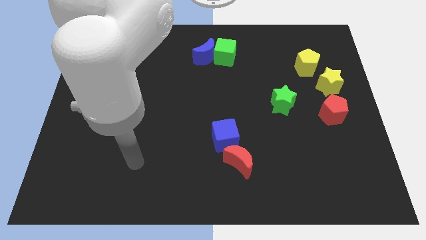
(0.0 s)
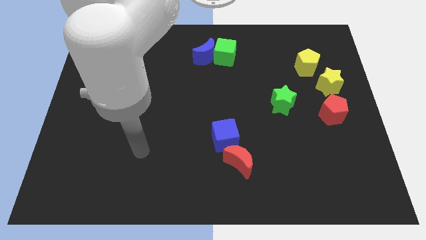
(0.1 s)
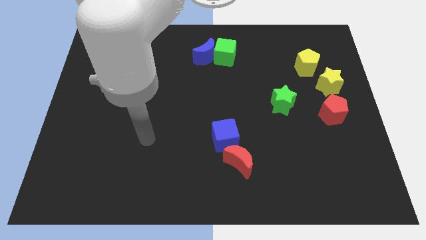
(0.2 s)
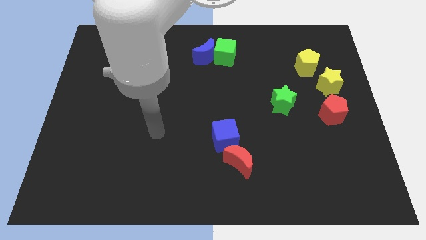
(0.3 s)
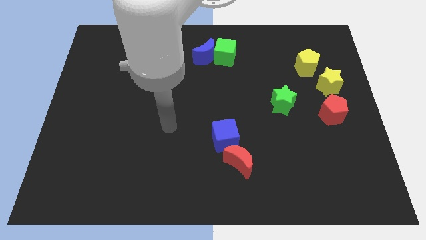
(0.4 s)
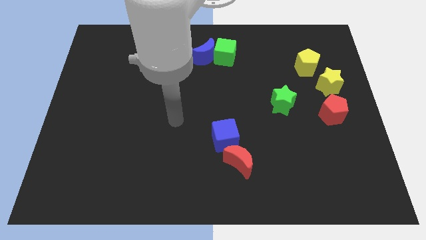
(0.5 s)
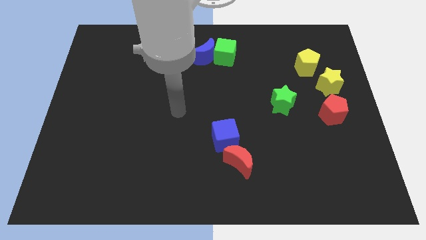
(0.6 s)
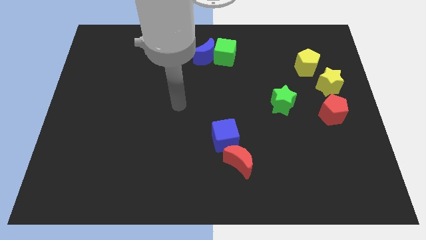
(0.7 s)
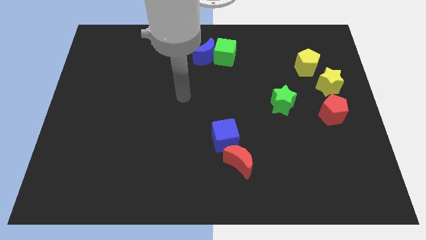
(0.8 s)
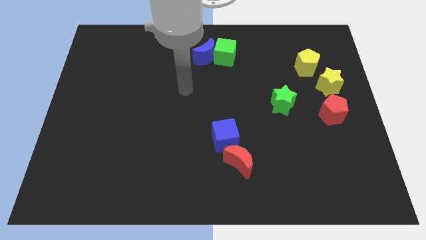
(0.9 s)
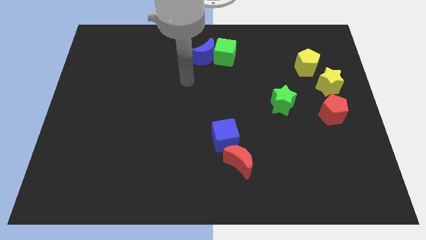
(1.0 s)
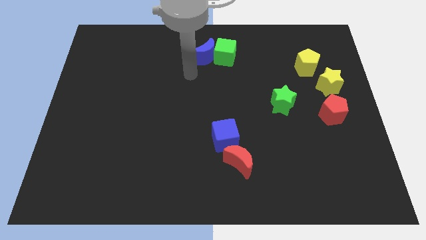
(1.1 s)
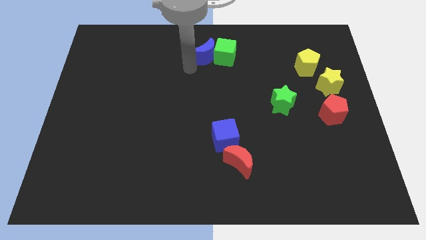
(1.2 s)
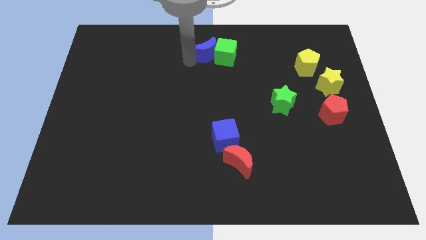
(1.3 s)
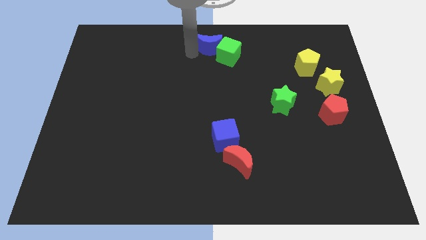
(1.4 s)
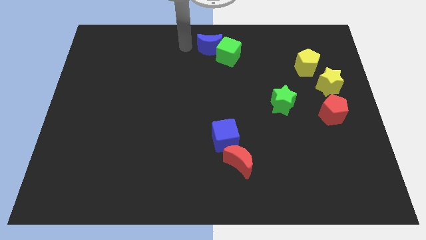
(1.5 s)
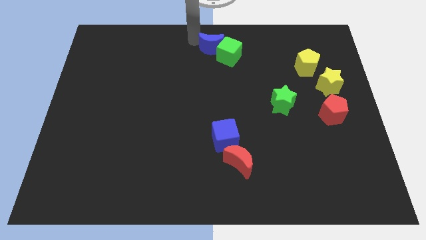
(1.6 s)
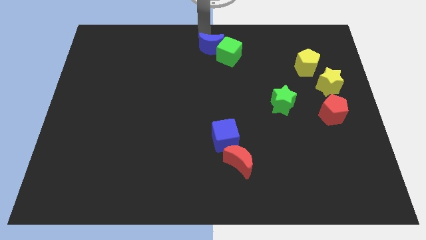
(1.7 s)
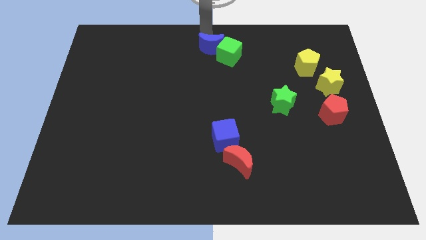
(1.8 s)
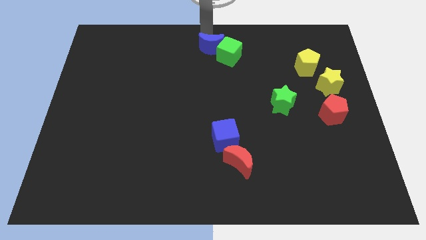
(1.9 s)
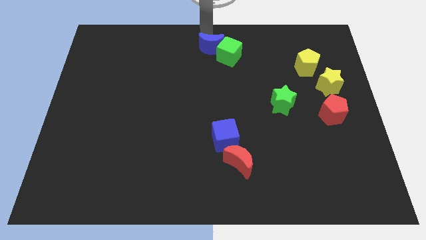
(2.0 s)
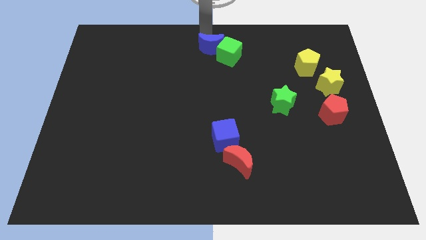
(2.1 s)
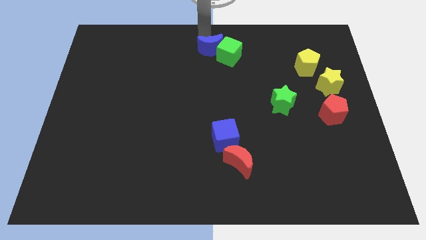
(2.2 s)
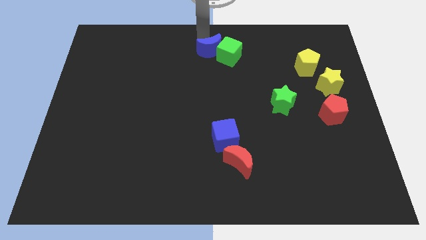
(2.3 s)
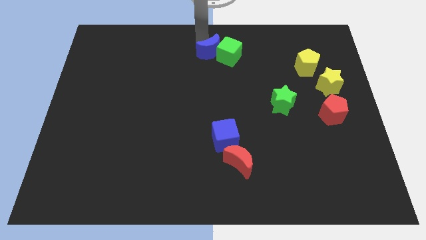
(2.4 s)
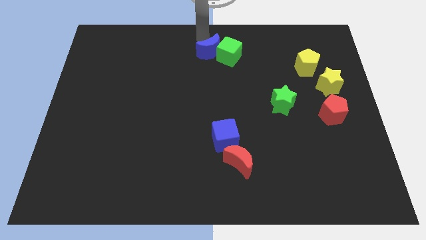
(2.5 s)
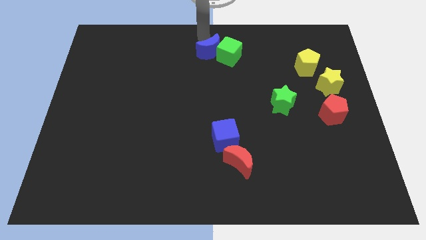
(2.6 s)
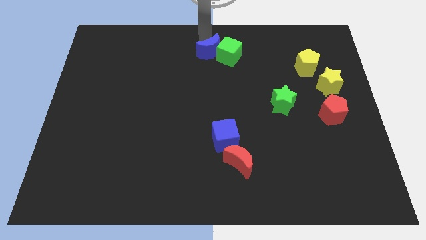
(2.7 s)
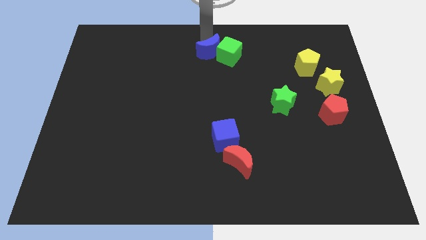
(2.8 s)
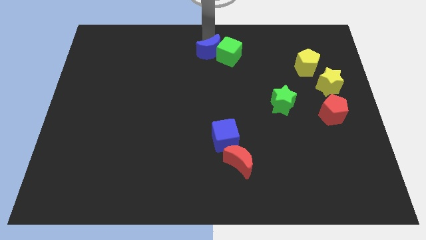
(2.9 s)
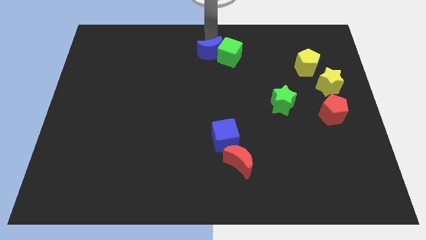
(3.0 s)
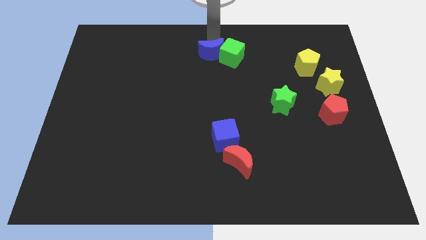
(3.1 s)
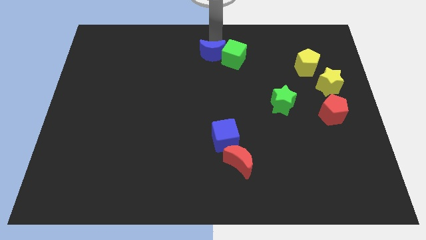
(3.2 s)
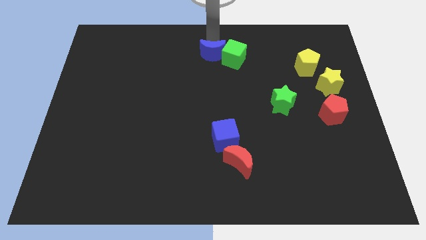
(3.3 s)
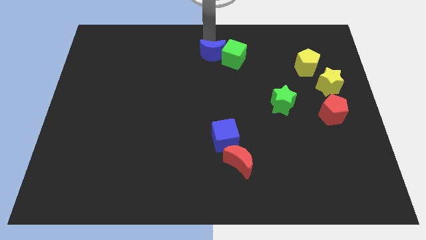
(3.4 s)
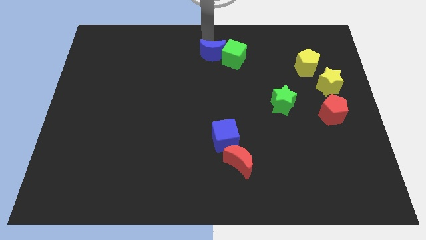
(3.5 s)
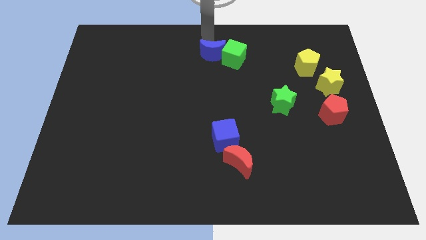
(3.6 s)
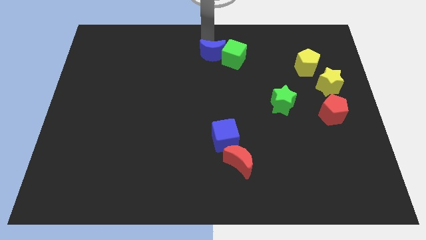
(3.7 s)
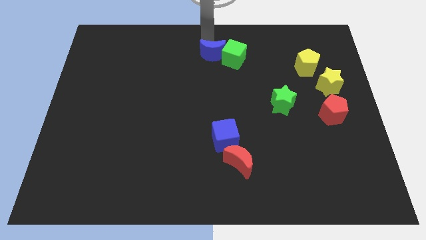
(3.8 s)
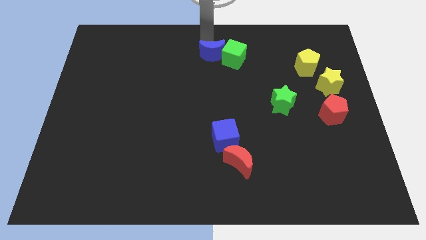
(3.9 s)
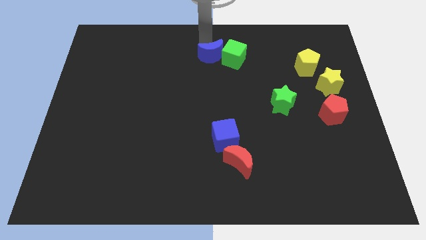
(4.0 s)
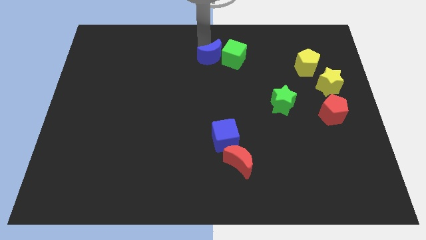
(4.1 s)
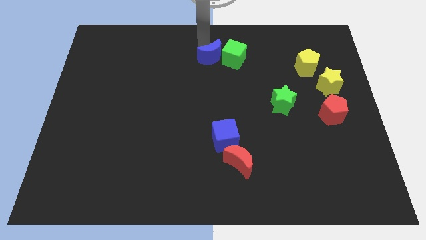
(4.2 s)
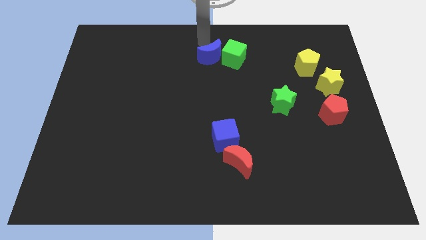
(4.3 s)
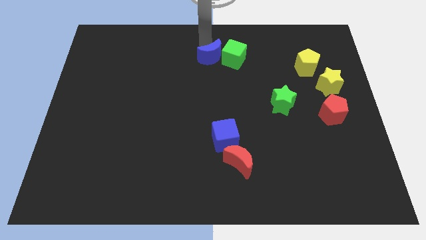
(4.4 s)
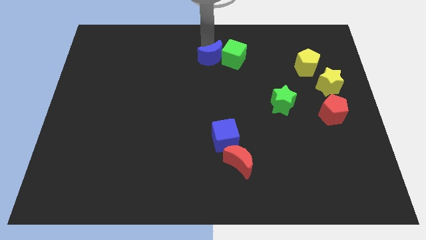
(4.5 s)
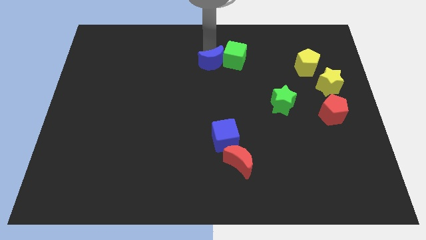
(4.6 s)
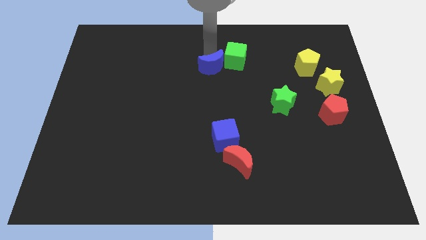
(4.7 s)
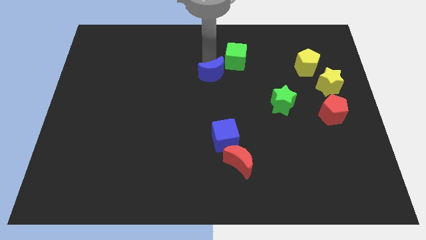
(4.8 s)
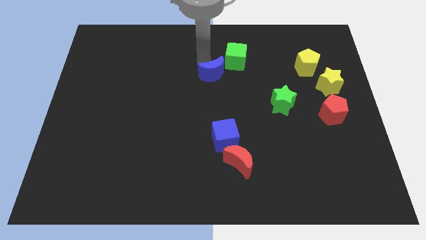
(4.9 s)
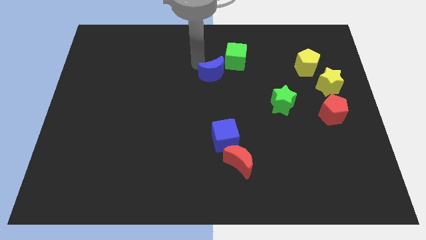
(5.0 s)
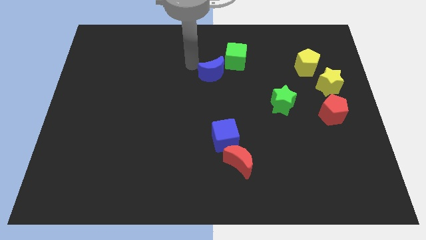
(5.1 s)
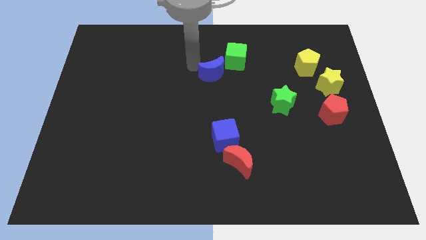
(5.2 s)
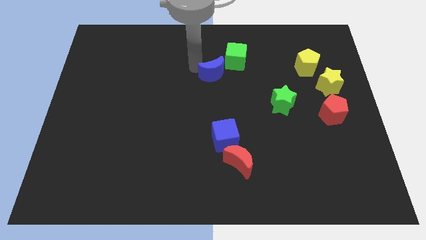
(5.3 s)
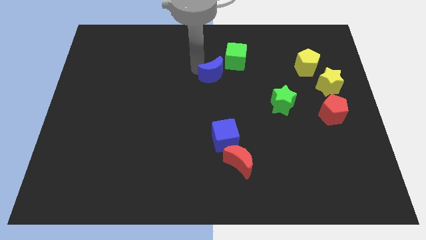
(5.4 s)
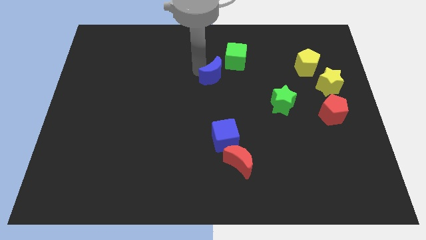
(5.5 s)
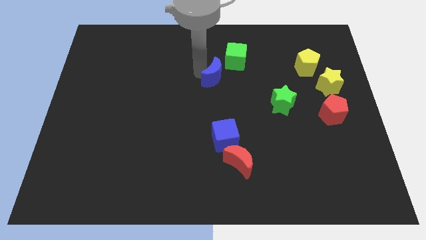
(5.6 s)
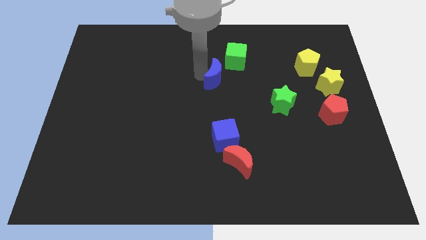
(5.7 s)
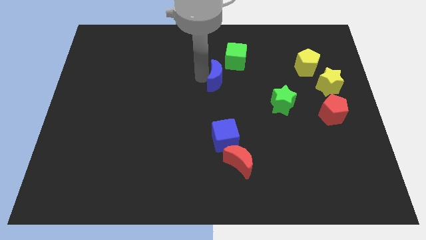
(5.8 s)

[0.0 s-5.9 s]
slightly move the blue moon down and then right

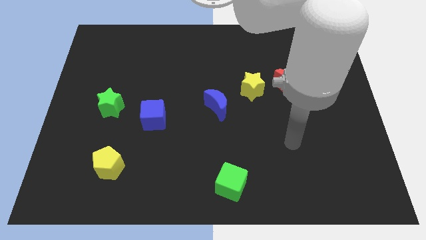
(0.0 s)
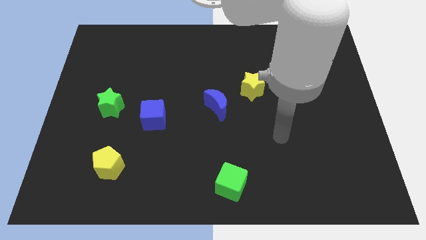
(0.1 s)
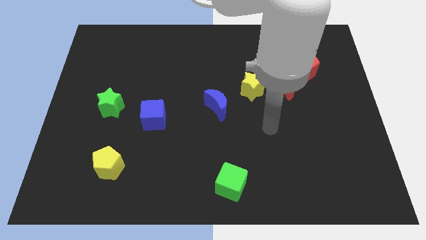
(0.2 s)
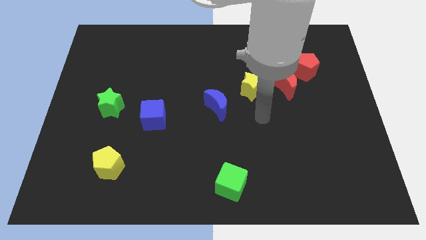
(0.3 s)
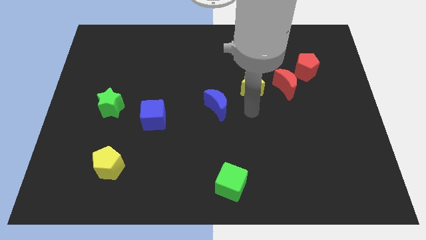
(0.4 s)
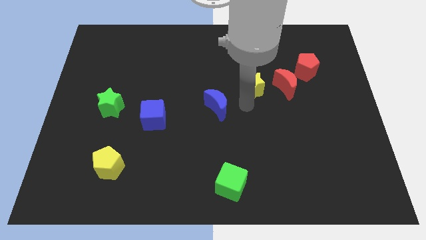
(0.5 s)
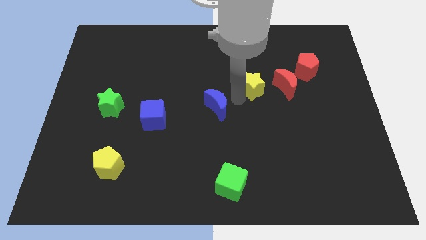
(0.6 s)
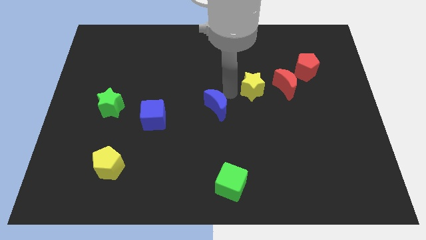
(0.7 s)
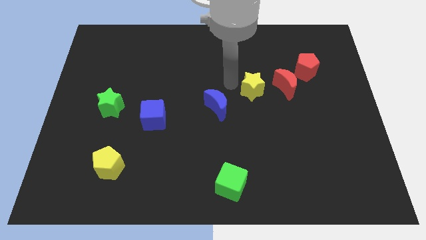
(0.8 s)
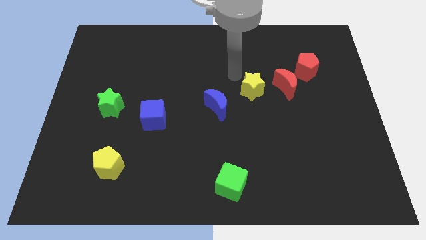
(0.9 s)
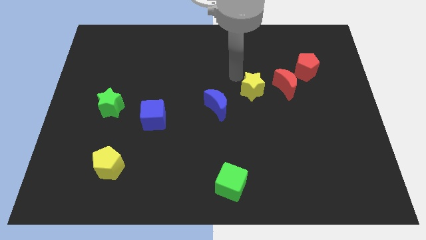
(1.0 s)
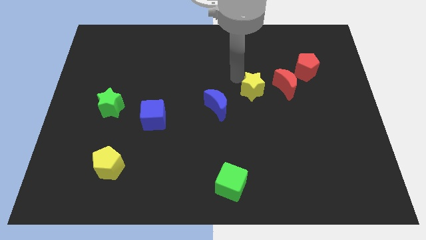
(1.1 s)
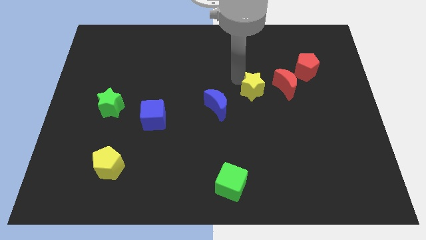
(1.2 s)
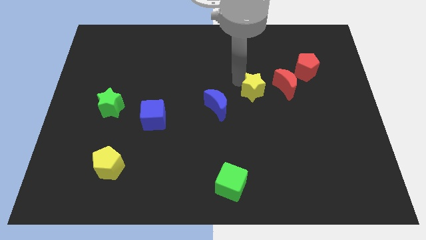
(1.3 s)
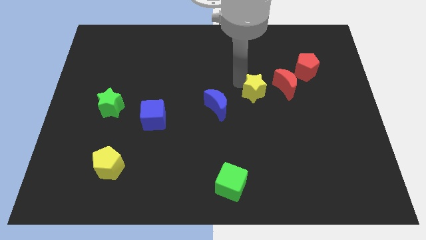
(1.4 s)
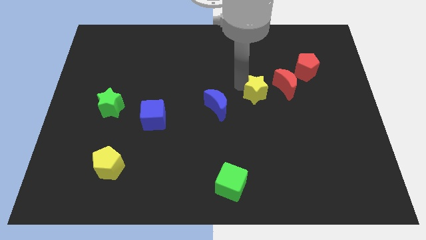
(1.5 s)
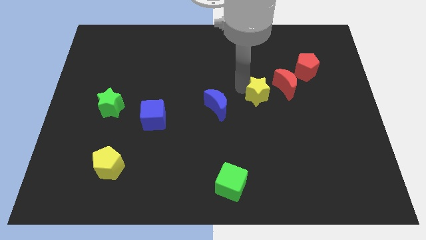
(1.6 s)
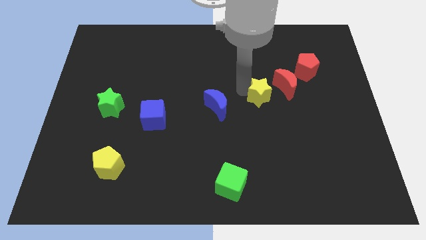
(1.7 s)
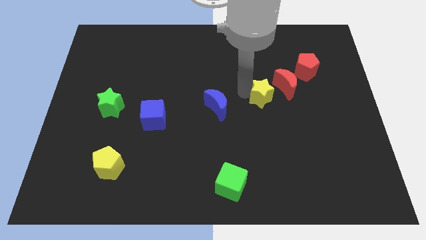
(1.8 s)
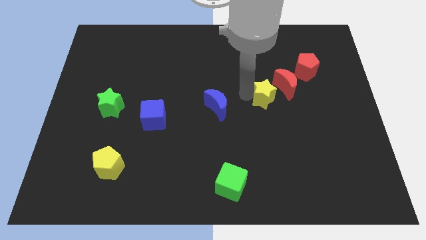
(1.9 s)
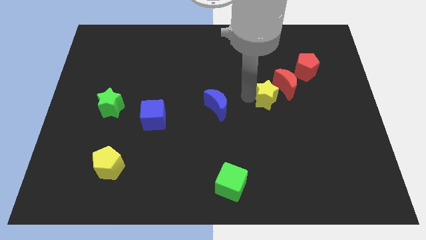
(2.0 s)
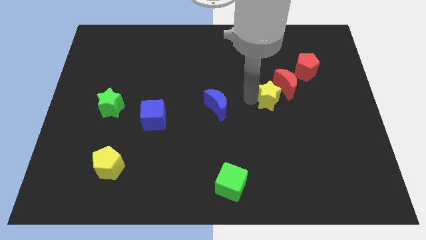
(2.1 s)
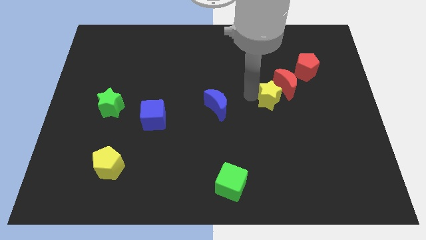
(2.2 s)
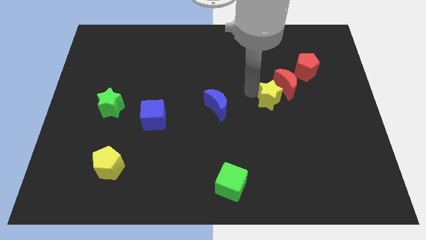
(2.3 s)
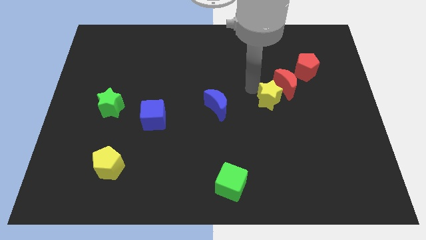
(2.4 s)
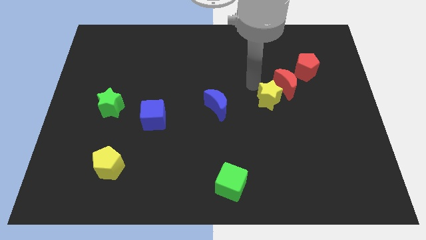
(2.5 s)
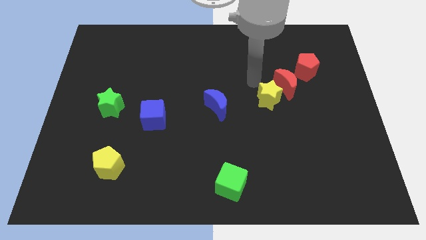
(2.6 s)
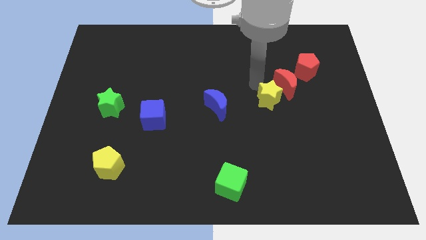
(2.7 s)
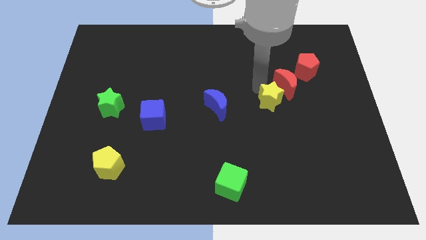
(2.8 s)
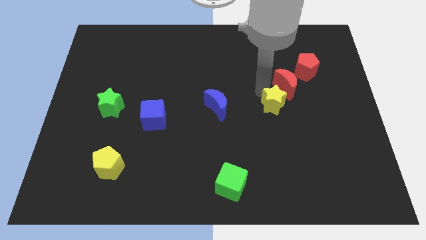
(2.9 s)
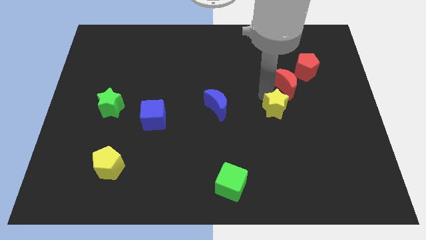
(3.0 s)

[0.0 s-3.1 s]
slightly slide the yellow star diagonally down and to the right
